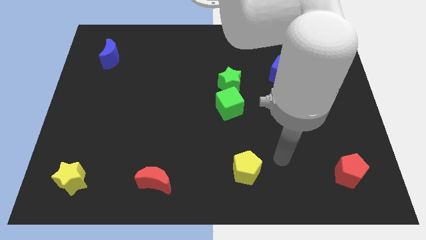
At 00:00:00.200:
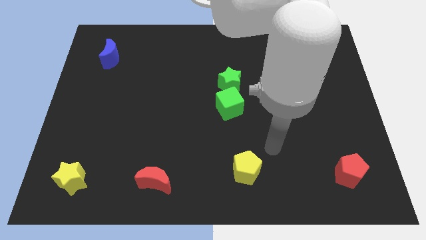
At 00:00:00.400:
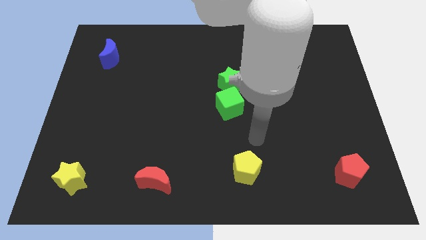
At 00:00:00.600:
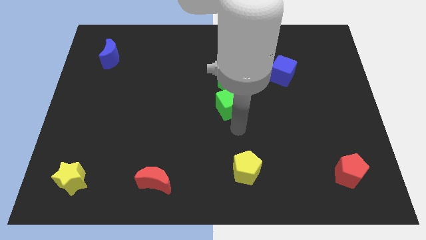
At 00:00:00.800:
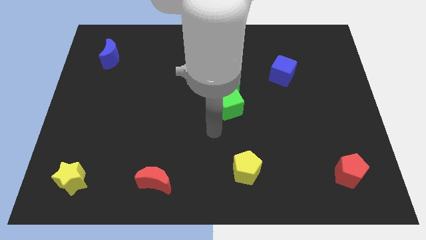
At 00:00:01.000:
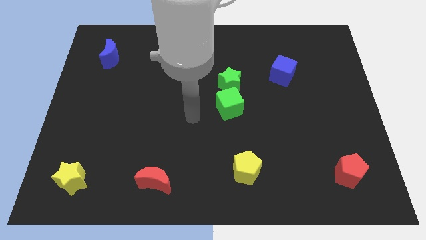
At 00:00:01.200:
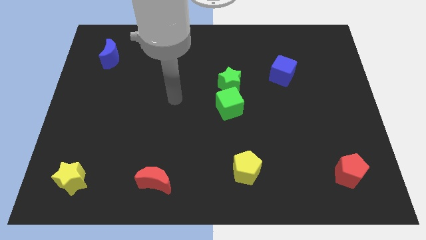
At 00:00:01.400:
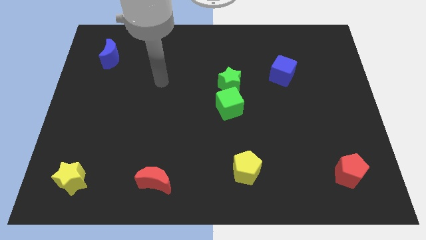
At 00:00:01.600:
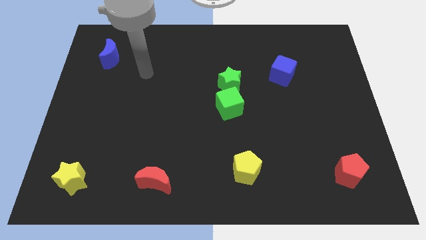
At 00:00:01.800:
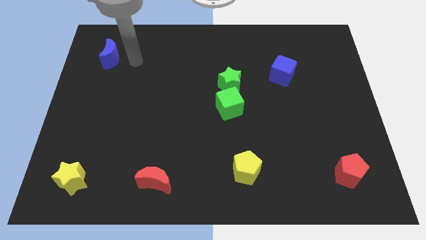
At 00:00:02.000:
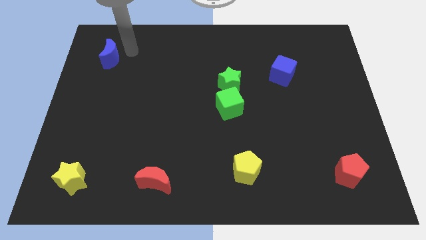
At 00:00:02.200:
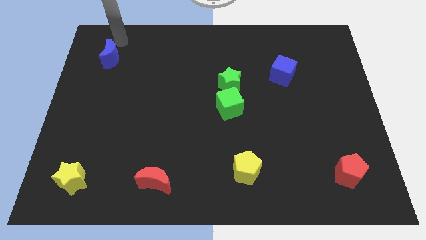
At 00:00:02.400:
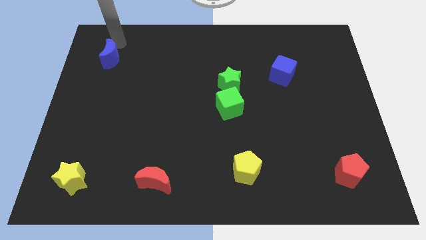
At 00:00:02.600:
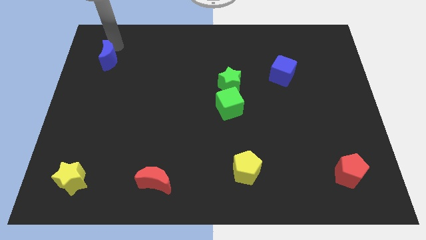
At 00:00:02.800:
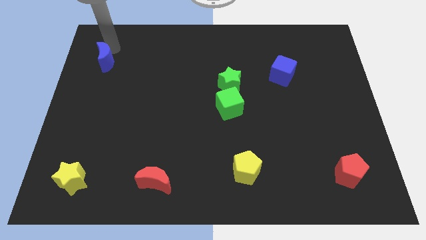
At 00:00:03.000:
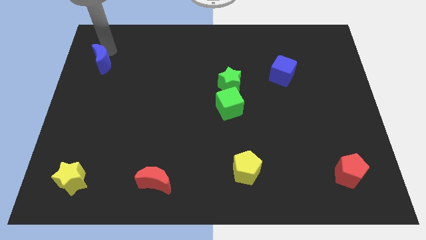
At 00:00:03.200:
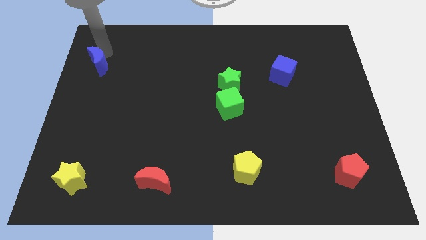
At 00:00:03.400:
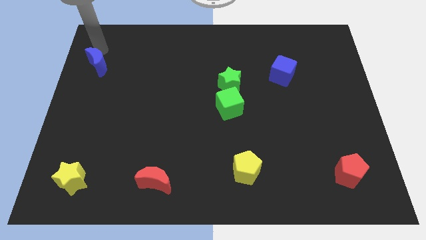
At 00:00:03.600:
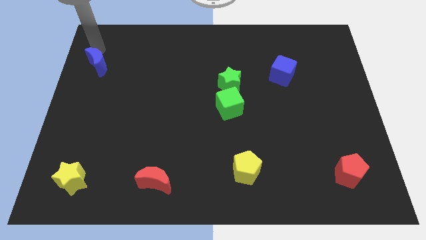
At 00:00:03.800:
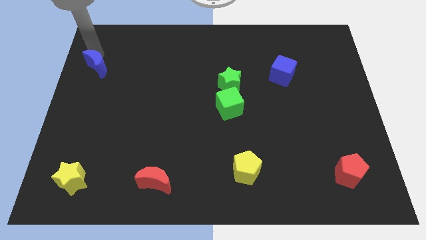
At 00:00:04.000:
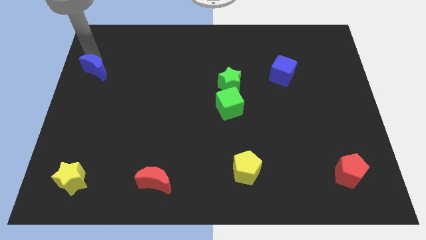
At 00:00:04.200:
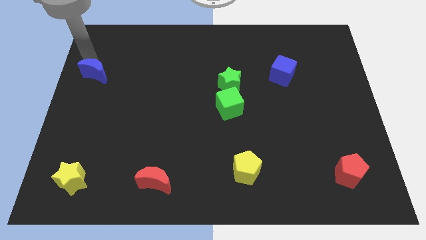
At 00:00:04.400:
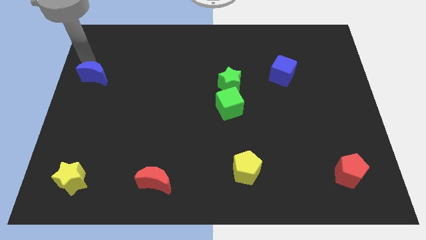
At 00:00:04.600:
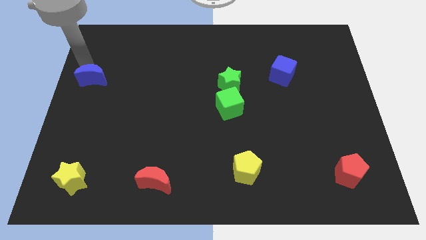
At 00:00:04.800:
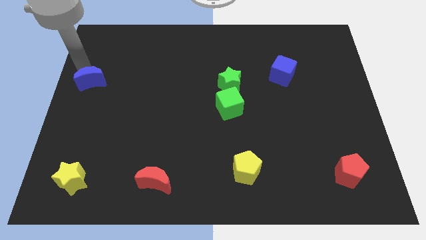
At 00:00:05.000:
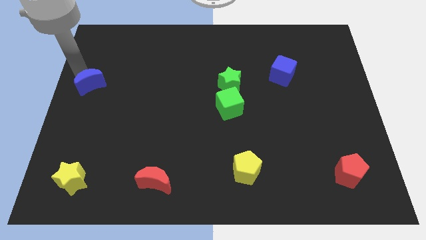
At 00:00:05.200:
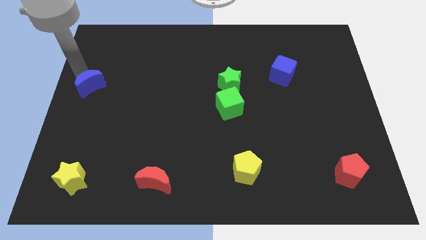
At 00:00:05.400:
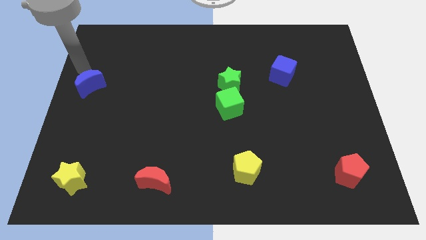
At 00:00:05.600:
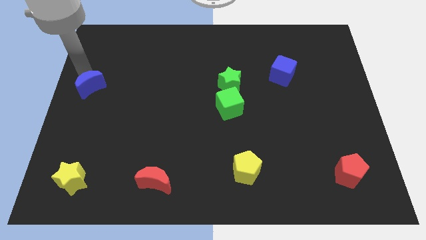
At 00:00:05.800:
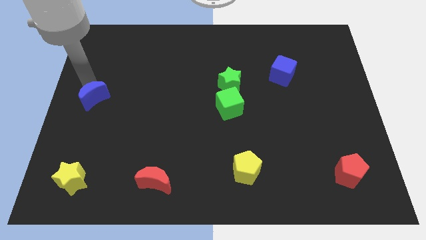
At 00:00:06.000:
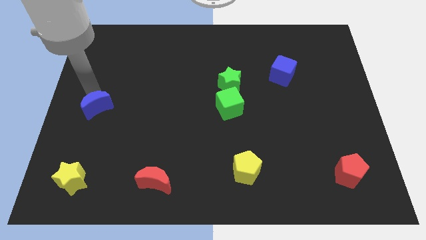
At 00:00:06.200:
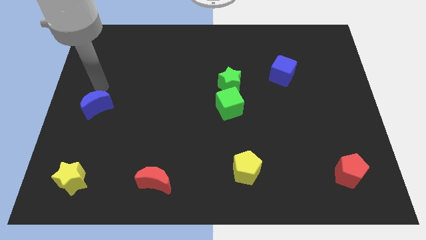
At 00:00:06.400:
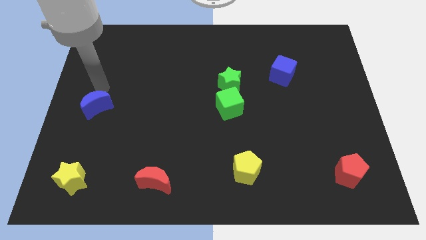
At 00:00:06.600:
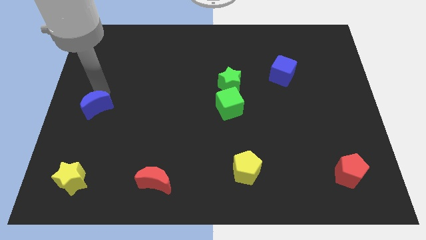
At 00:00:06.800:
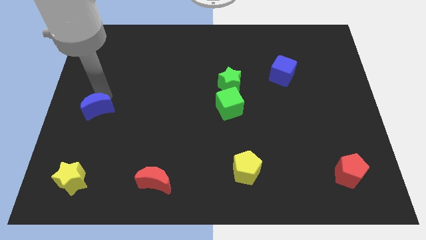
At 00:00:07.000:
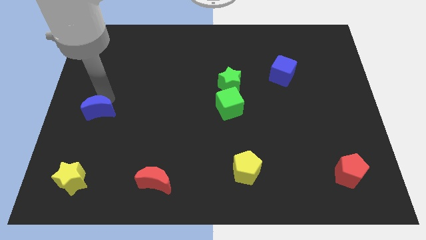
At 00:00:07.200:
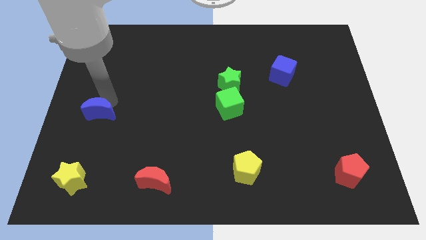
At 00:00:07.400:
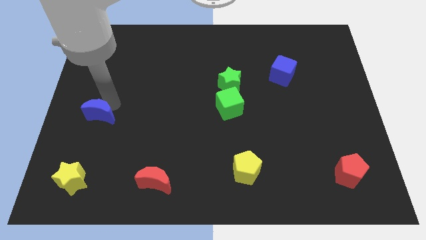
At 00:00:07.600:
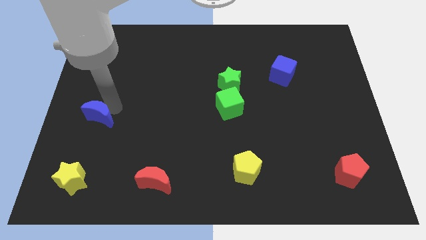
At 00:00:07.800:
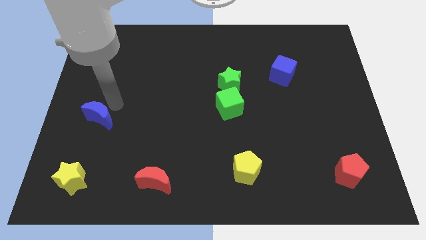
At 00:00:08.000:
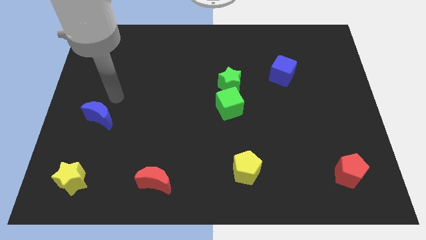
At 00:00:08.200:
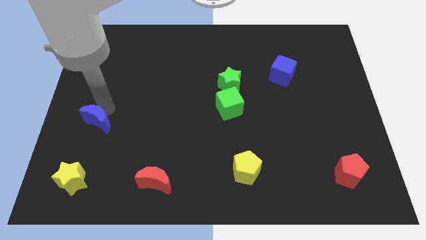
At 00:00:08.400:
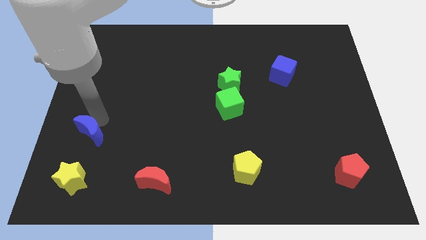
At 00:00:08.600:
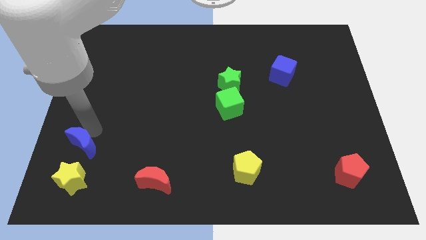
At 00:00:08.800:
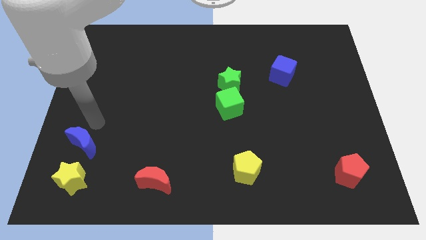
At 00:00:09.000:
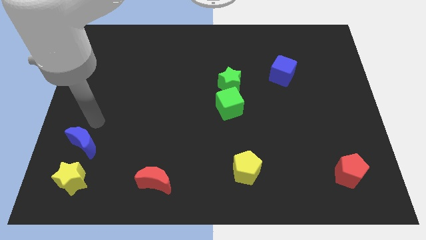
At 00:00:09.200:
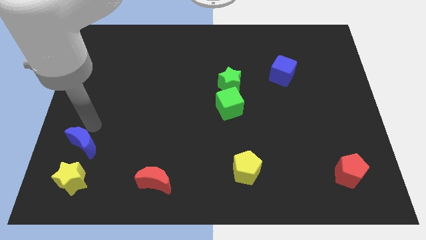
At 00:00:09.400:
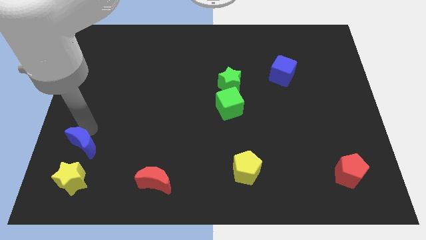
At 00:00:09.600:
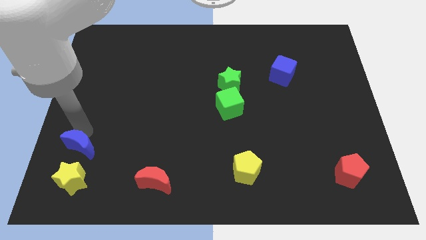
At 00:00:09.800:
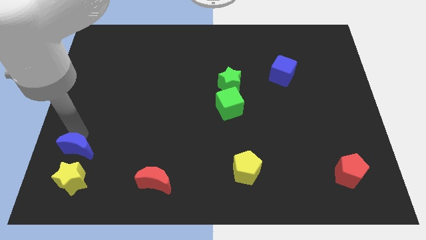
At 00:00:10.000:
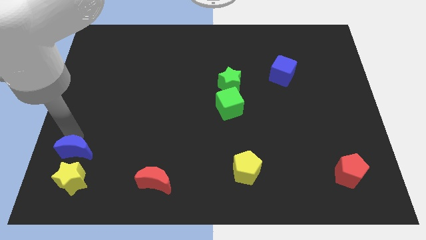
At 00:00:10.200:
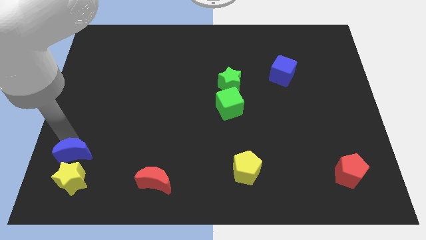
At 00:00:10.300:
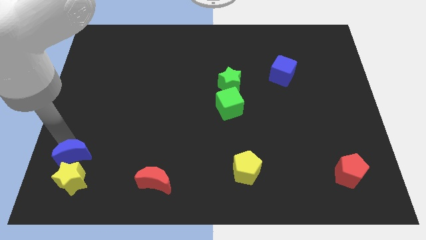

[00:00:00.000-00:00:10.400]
push the blue moon close to the yellow star

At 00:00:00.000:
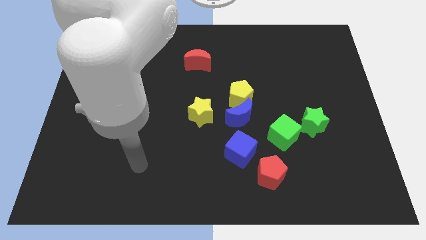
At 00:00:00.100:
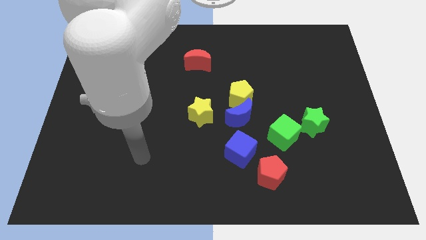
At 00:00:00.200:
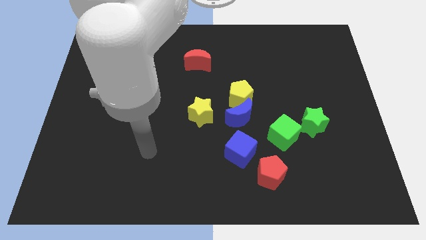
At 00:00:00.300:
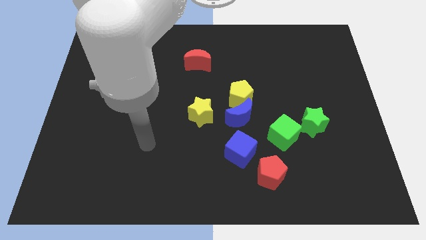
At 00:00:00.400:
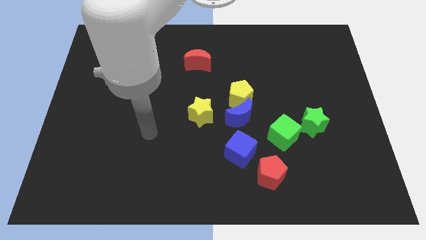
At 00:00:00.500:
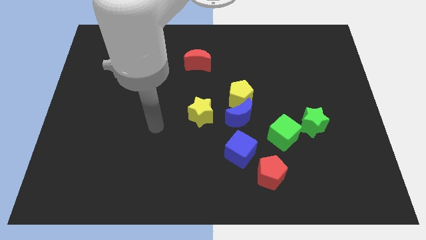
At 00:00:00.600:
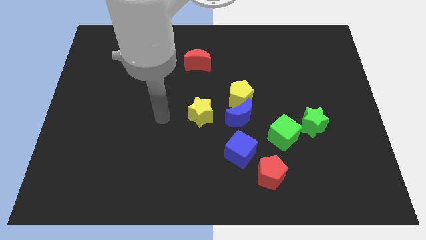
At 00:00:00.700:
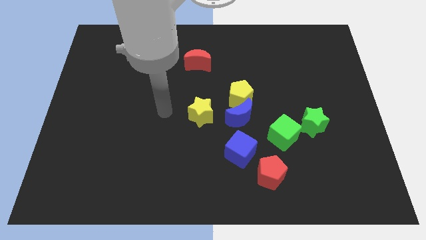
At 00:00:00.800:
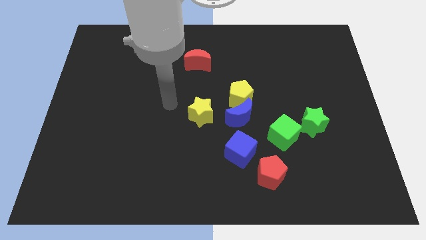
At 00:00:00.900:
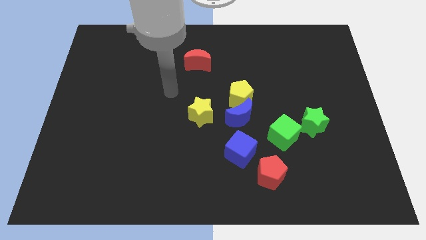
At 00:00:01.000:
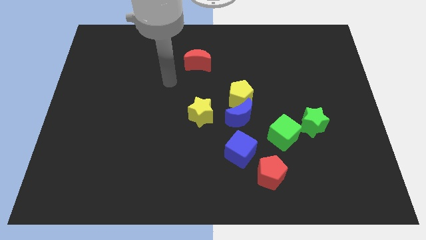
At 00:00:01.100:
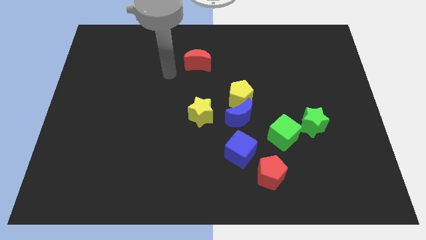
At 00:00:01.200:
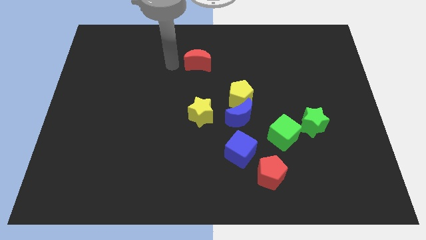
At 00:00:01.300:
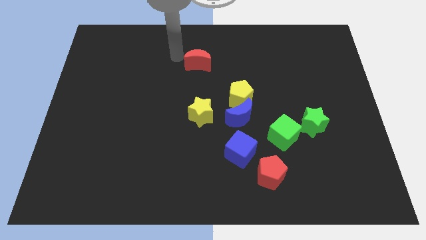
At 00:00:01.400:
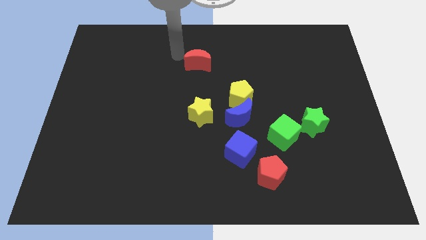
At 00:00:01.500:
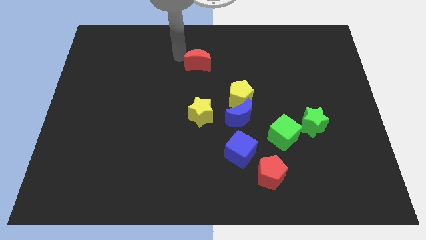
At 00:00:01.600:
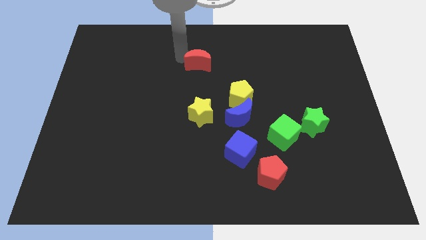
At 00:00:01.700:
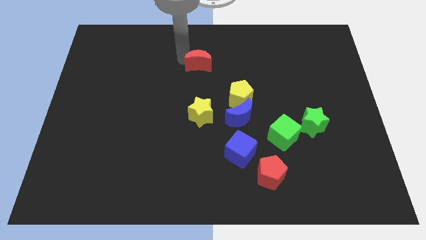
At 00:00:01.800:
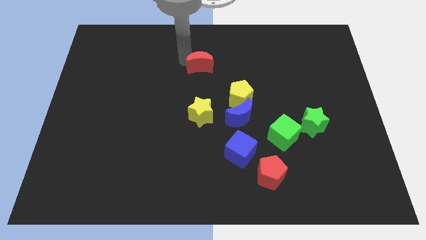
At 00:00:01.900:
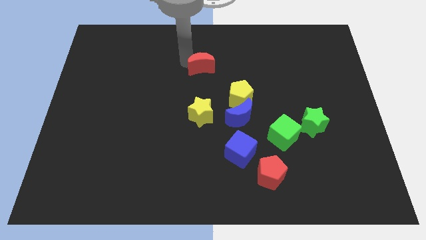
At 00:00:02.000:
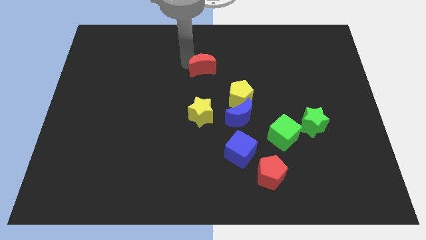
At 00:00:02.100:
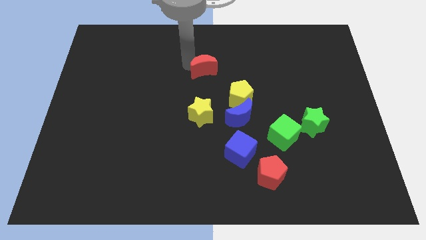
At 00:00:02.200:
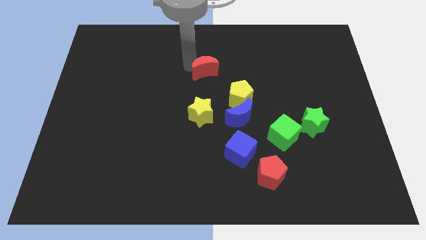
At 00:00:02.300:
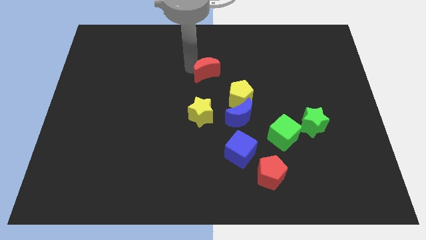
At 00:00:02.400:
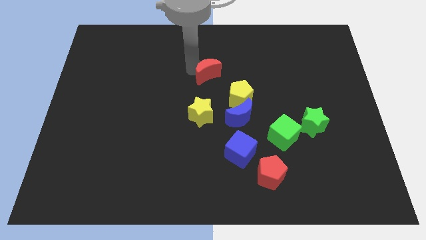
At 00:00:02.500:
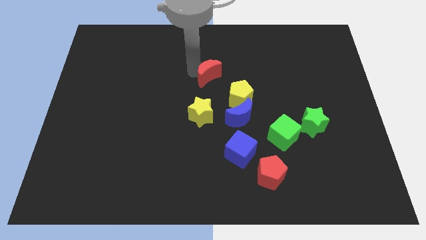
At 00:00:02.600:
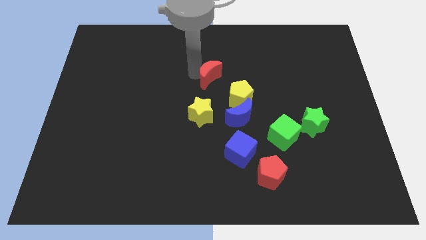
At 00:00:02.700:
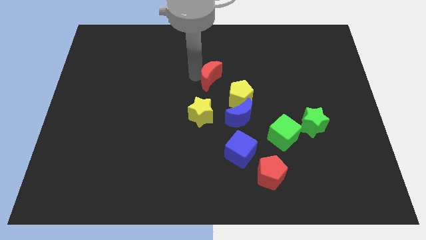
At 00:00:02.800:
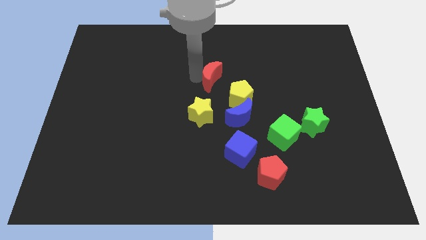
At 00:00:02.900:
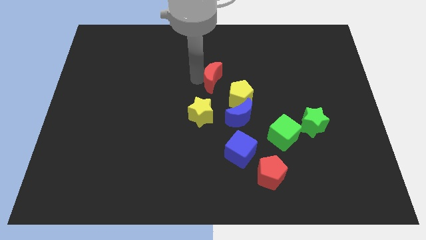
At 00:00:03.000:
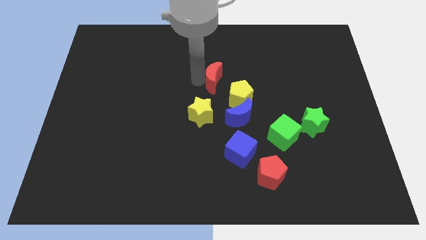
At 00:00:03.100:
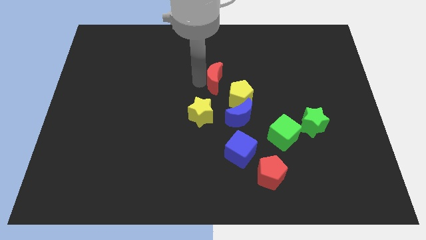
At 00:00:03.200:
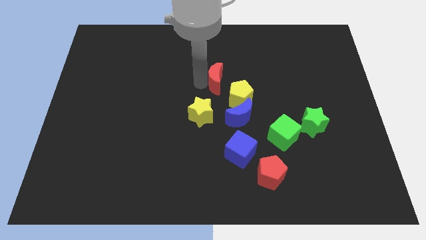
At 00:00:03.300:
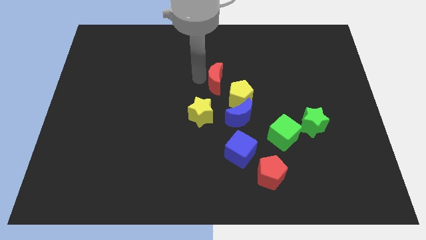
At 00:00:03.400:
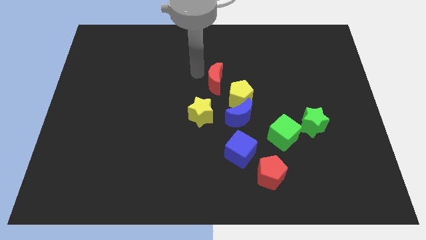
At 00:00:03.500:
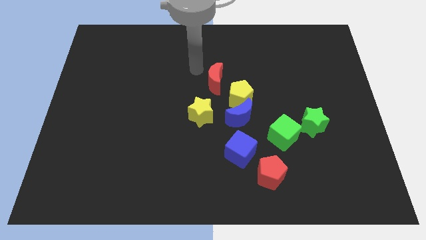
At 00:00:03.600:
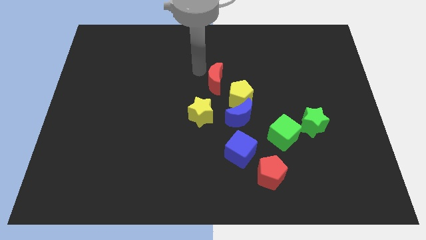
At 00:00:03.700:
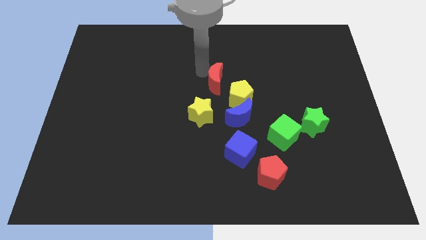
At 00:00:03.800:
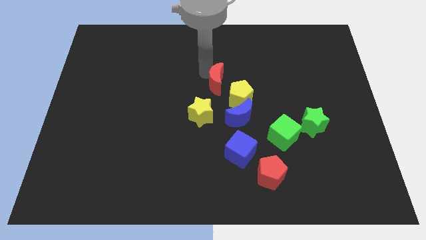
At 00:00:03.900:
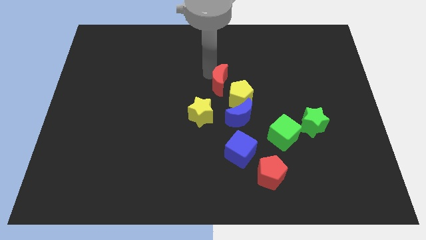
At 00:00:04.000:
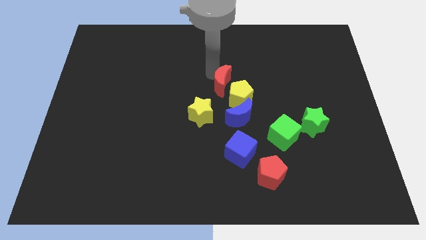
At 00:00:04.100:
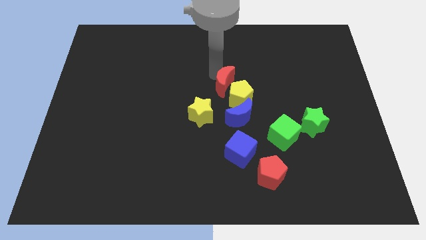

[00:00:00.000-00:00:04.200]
slide the red moon close to the yellow pentagon
